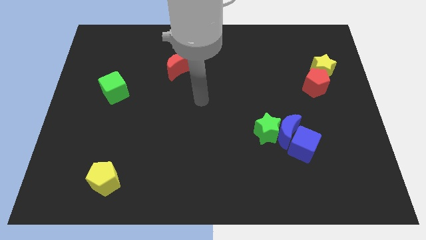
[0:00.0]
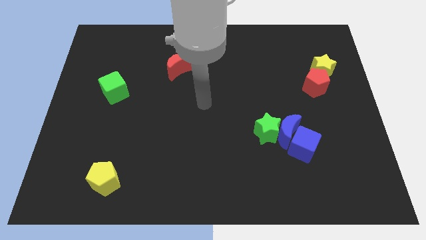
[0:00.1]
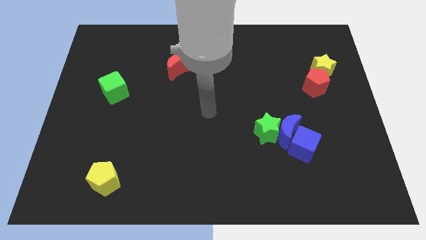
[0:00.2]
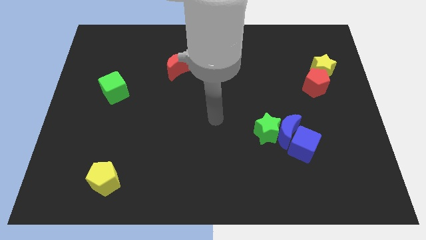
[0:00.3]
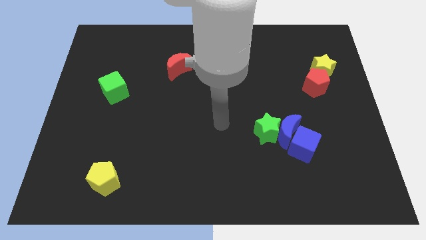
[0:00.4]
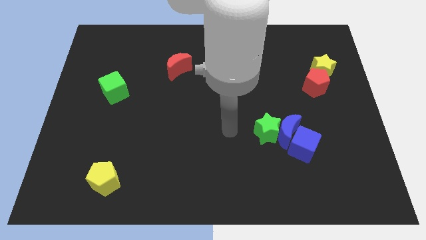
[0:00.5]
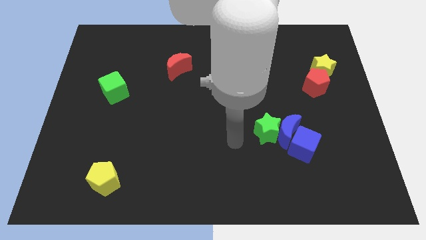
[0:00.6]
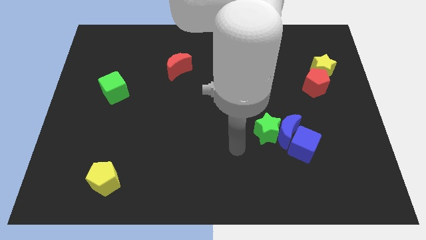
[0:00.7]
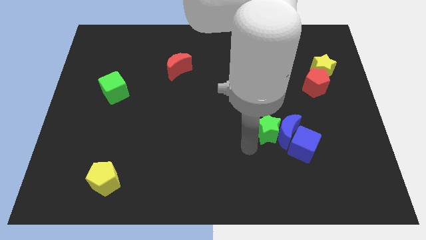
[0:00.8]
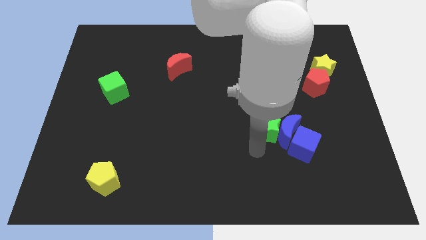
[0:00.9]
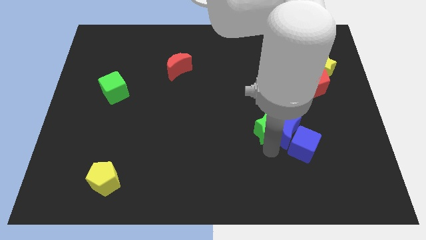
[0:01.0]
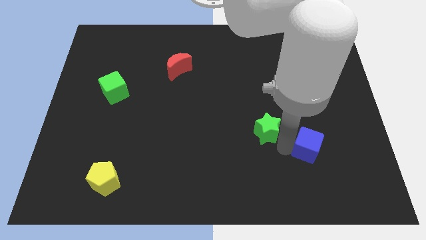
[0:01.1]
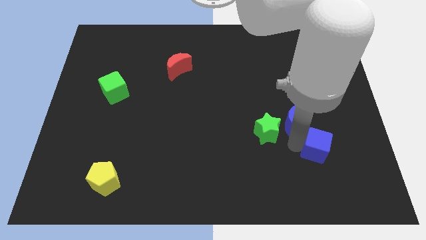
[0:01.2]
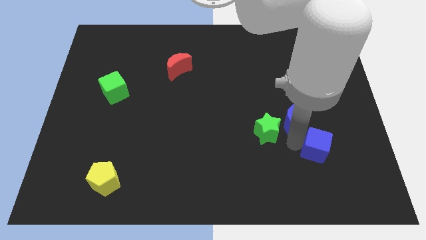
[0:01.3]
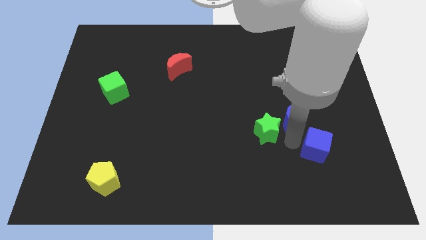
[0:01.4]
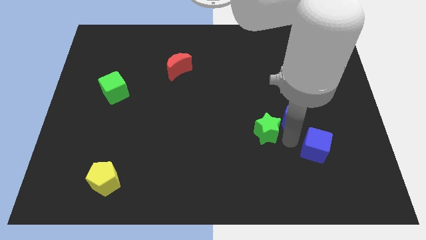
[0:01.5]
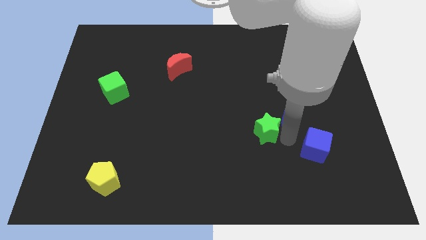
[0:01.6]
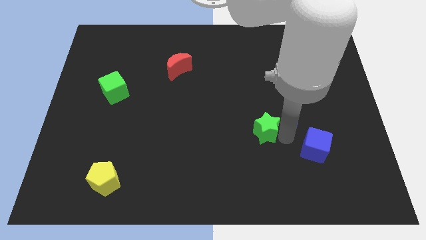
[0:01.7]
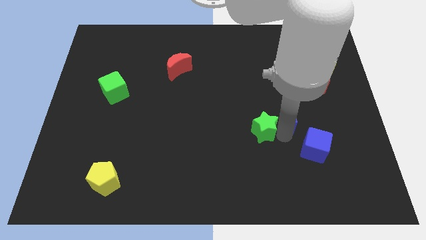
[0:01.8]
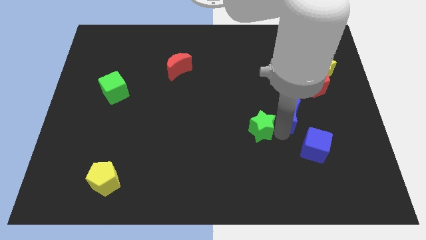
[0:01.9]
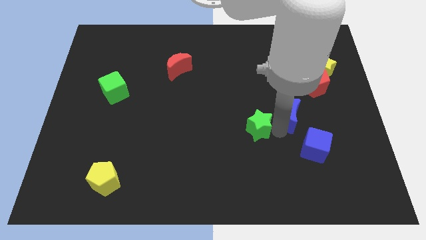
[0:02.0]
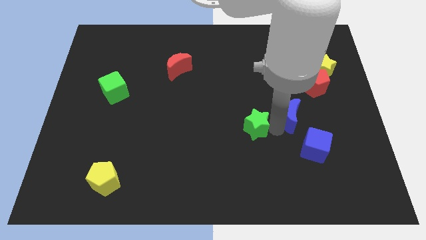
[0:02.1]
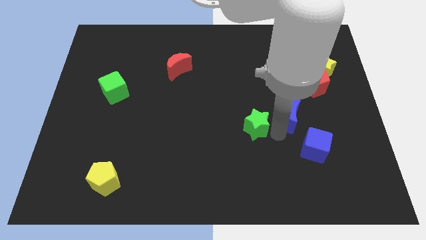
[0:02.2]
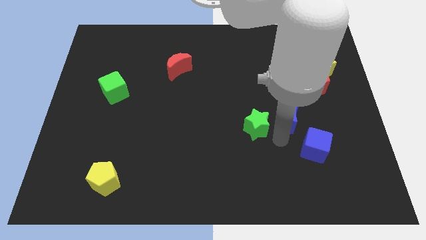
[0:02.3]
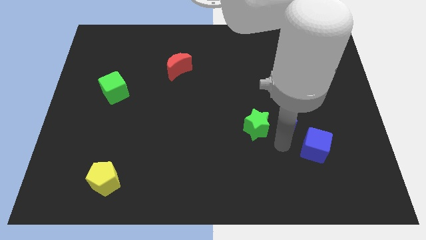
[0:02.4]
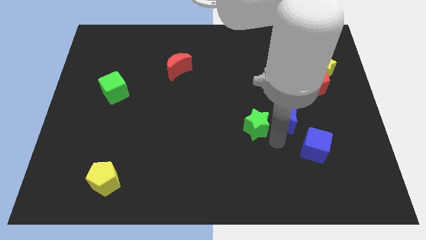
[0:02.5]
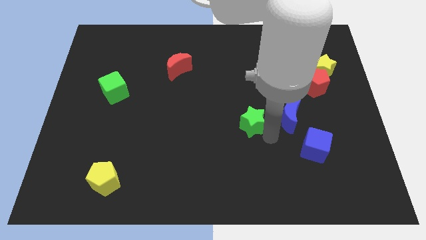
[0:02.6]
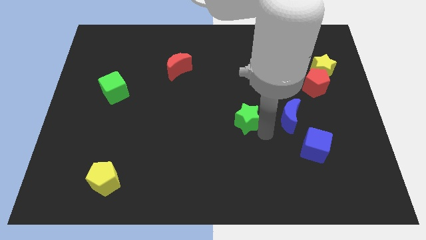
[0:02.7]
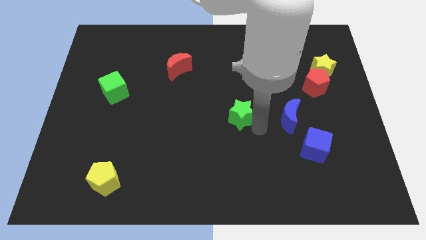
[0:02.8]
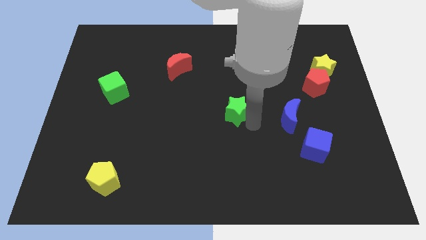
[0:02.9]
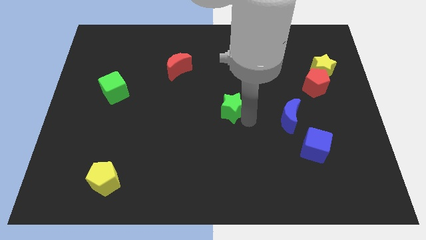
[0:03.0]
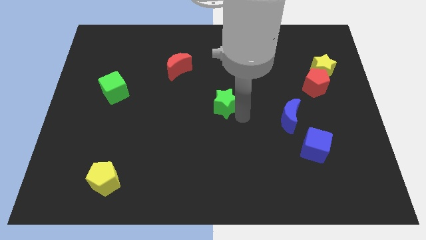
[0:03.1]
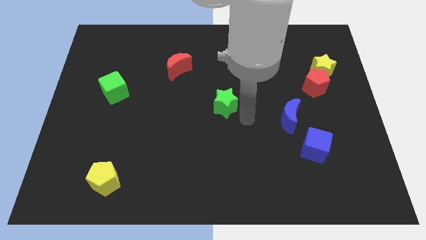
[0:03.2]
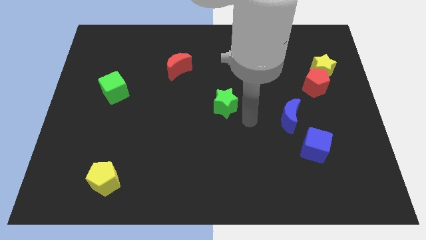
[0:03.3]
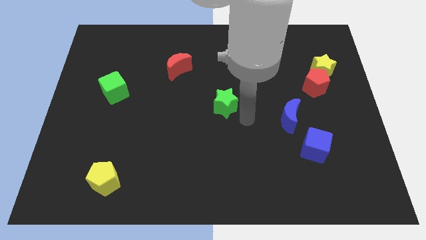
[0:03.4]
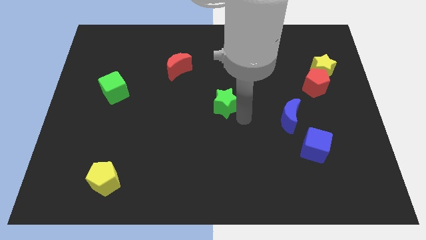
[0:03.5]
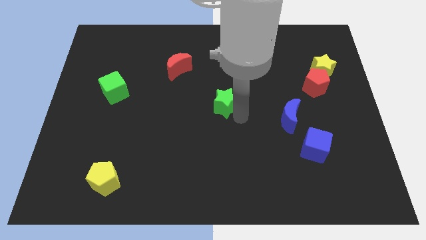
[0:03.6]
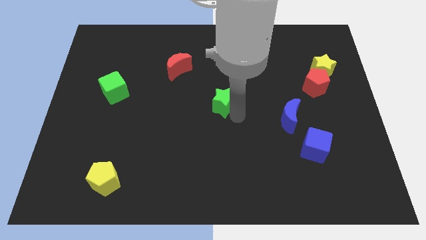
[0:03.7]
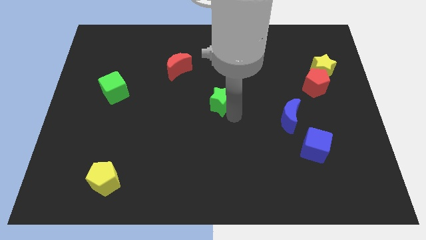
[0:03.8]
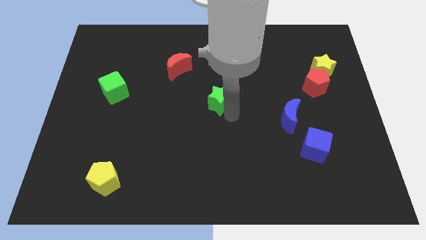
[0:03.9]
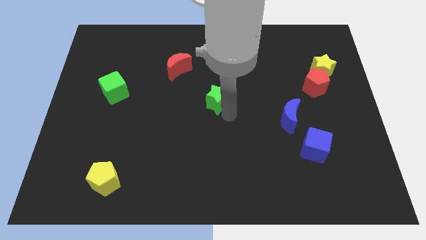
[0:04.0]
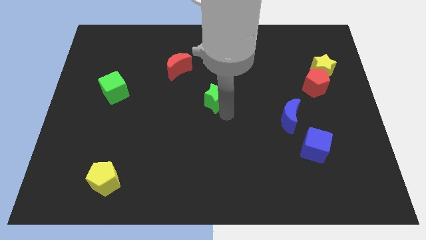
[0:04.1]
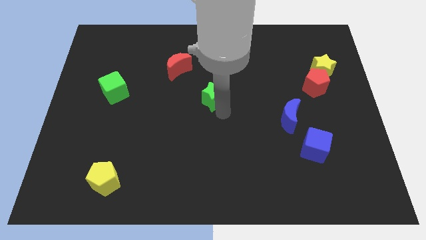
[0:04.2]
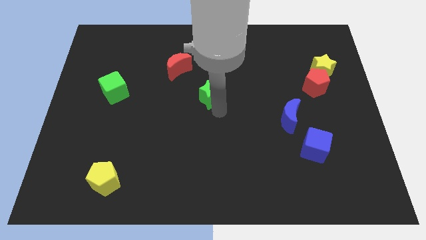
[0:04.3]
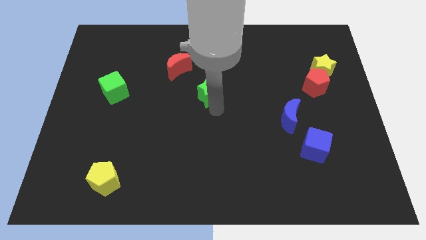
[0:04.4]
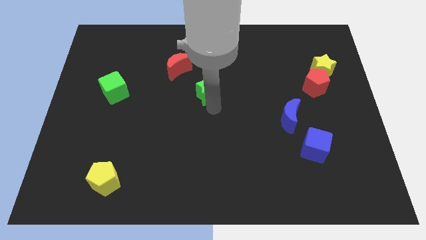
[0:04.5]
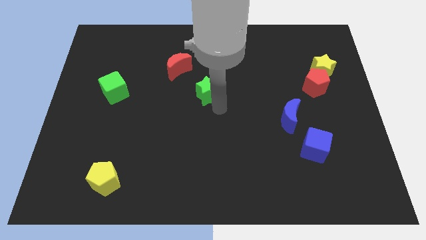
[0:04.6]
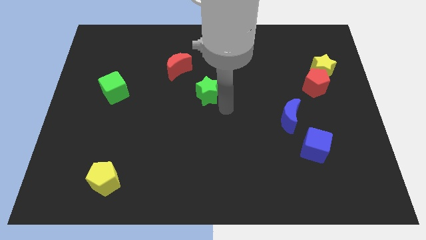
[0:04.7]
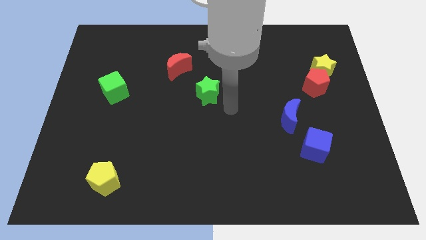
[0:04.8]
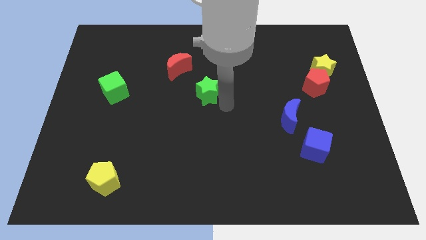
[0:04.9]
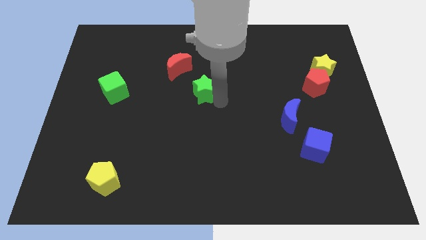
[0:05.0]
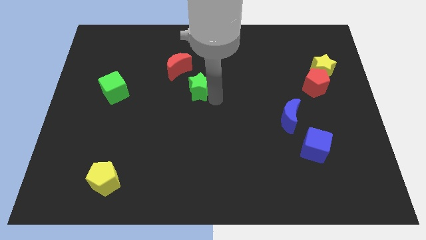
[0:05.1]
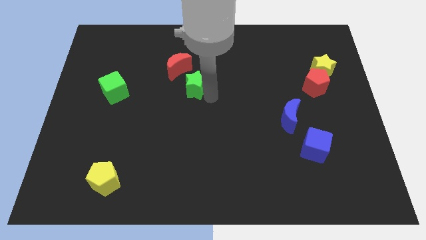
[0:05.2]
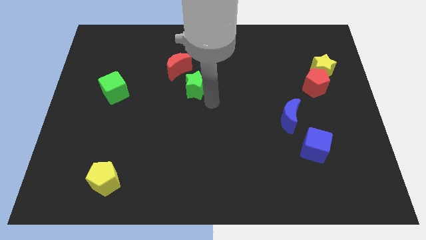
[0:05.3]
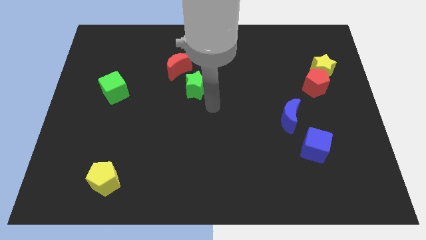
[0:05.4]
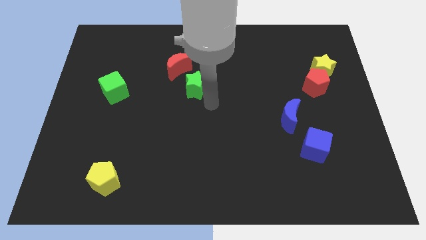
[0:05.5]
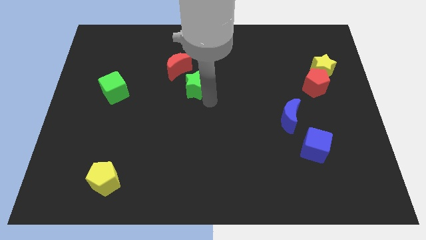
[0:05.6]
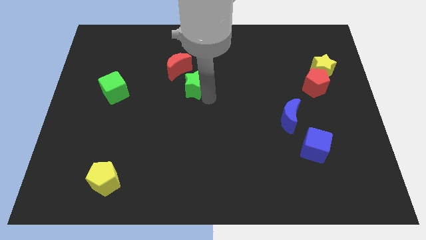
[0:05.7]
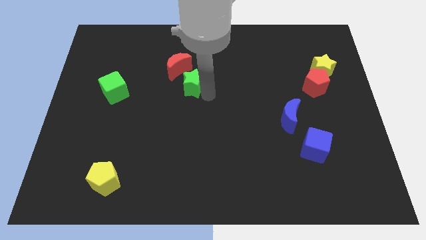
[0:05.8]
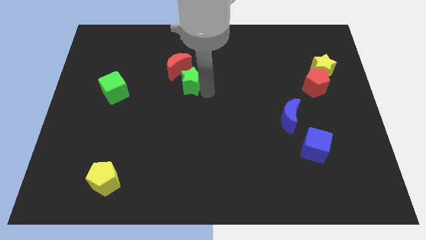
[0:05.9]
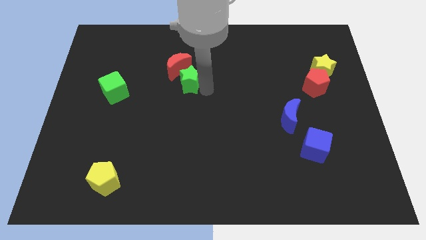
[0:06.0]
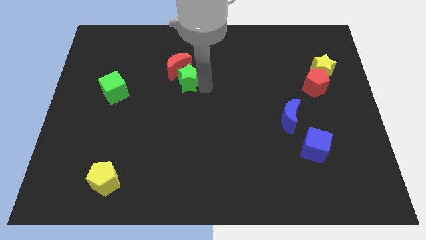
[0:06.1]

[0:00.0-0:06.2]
move the green star next to the red moon

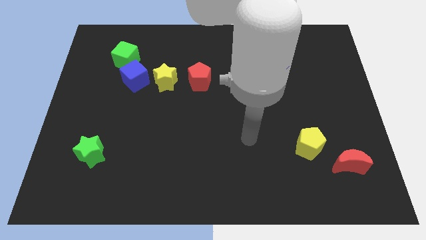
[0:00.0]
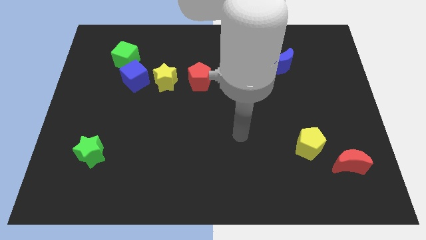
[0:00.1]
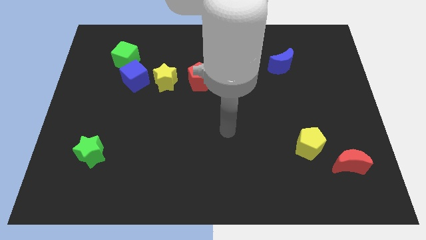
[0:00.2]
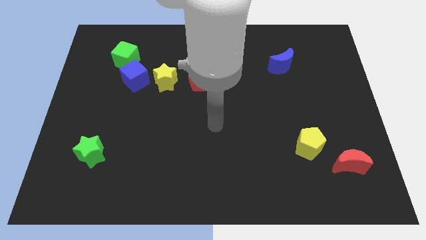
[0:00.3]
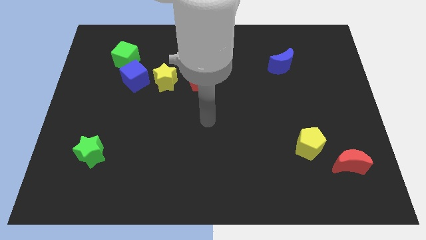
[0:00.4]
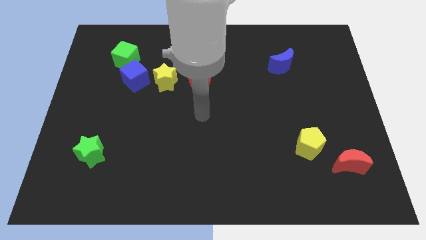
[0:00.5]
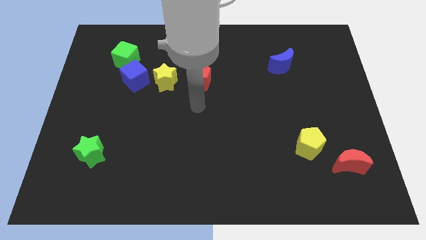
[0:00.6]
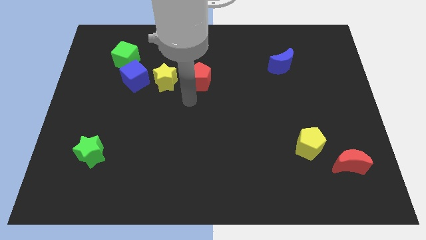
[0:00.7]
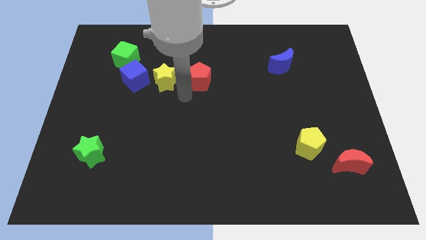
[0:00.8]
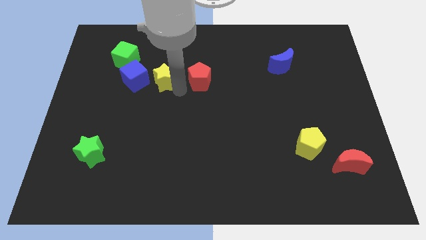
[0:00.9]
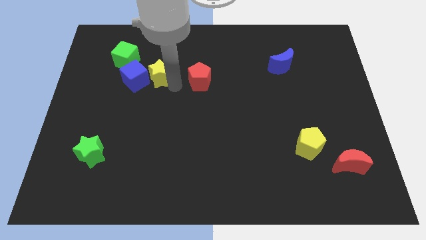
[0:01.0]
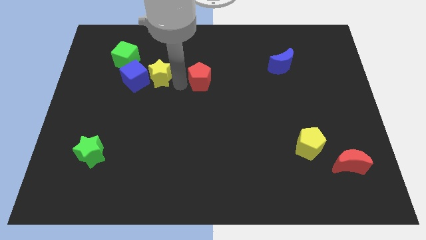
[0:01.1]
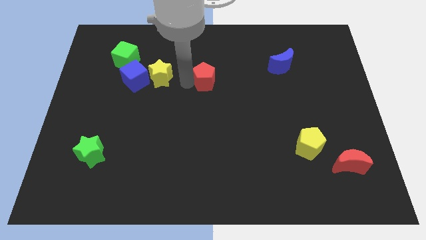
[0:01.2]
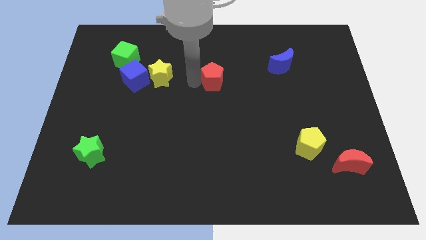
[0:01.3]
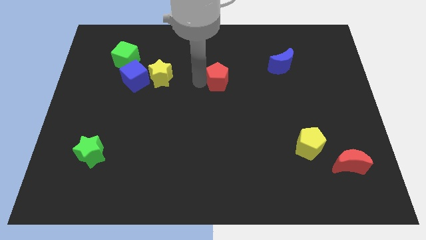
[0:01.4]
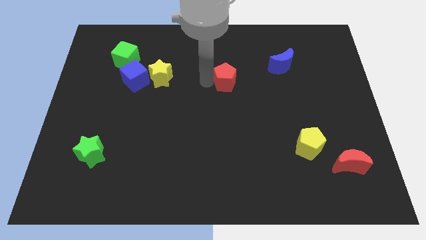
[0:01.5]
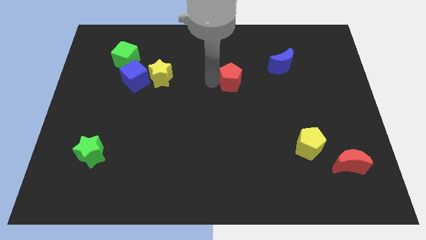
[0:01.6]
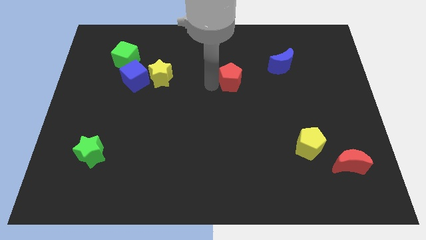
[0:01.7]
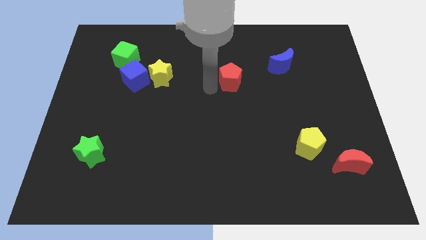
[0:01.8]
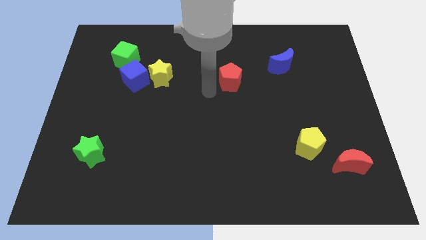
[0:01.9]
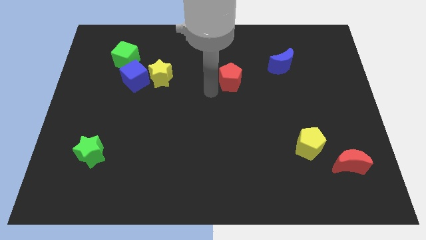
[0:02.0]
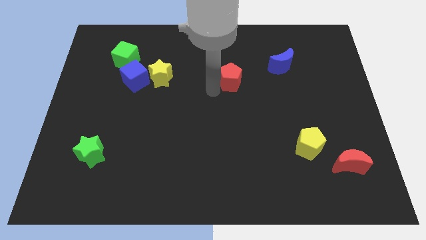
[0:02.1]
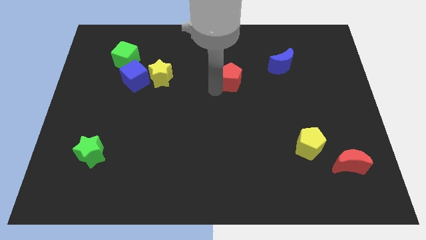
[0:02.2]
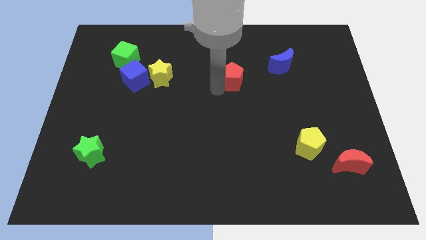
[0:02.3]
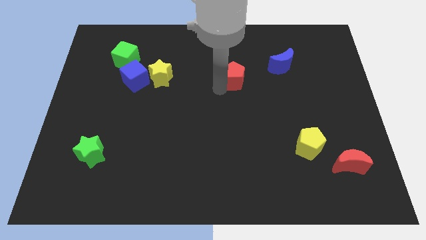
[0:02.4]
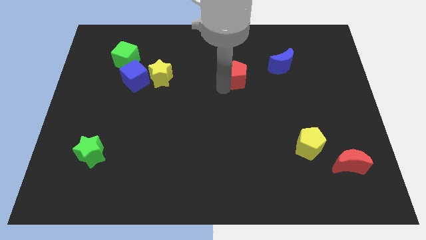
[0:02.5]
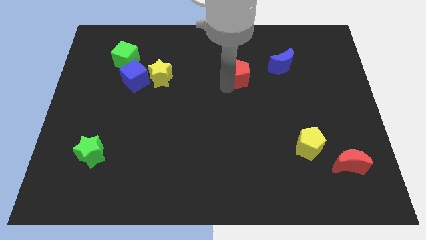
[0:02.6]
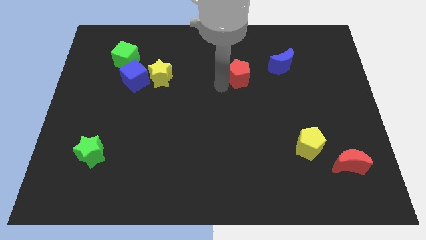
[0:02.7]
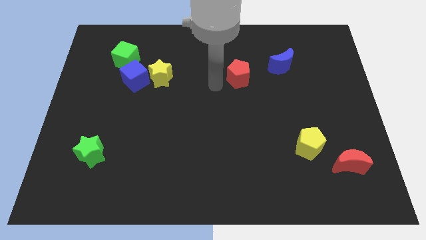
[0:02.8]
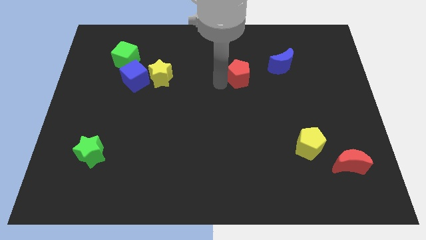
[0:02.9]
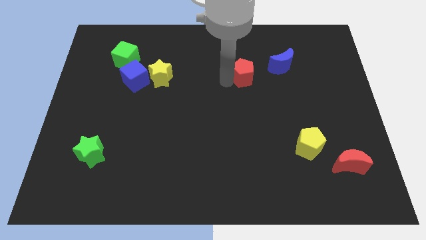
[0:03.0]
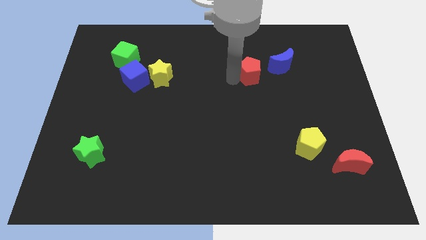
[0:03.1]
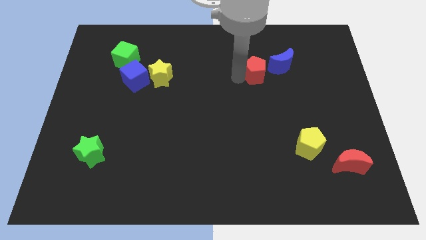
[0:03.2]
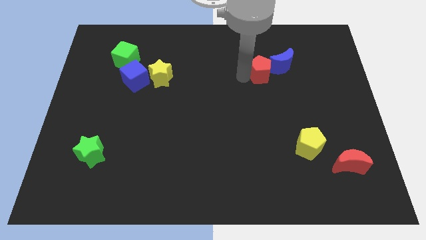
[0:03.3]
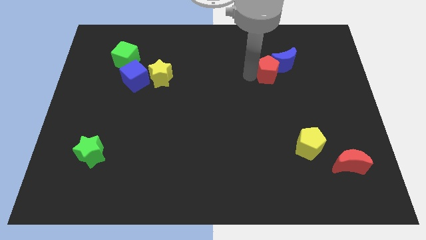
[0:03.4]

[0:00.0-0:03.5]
push the red pentagon close to the blue moon
